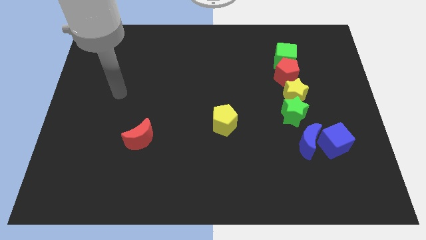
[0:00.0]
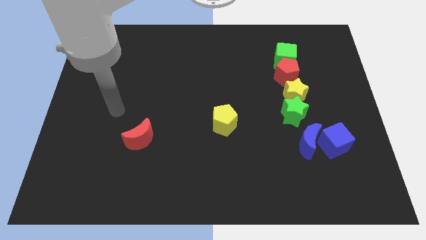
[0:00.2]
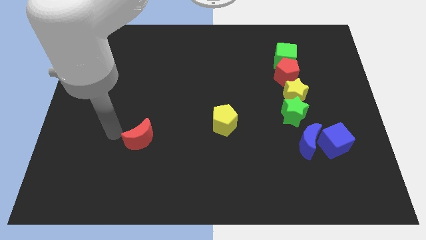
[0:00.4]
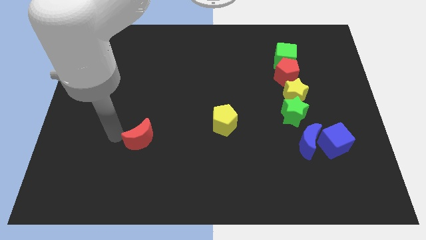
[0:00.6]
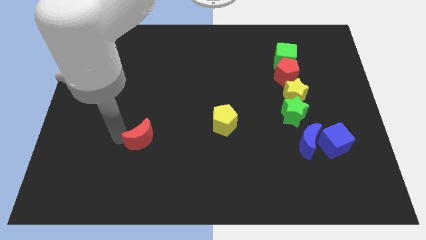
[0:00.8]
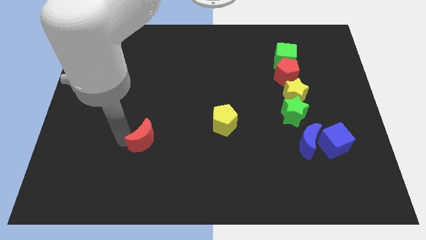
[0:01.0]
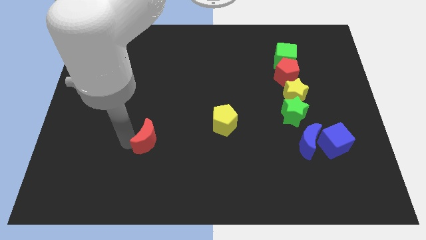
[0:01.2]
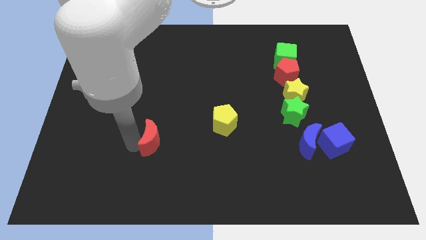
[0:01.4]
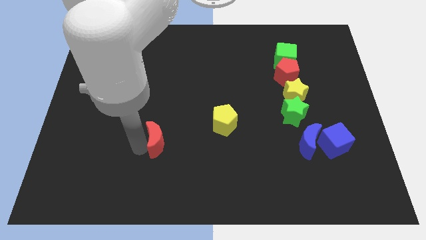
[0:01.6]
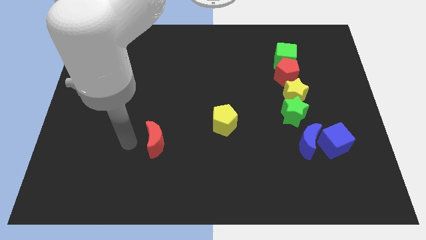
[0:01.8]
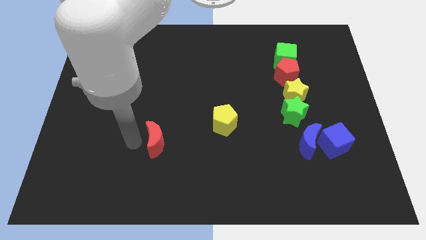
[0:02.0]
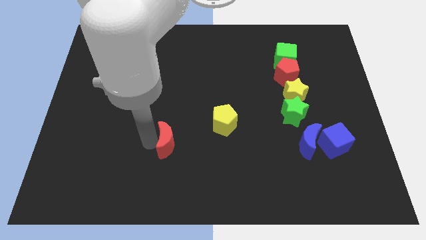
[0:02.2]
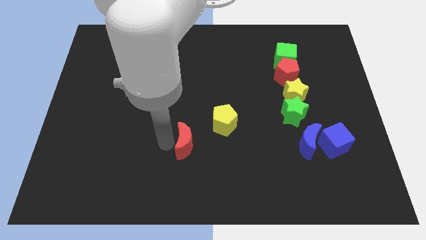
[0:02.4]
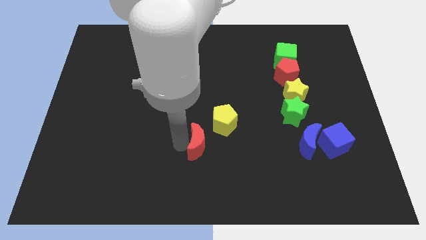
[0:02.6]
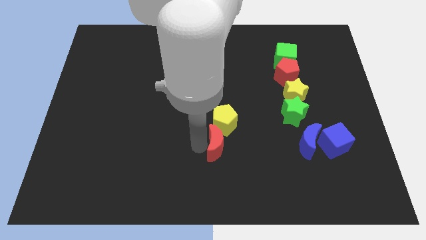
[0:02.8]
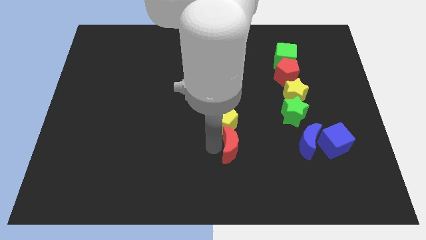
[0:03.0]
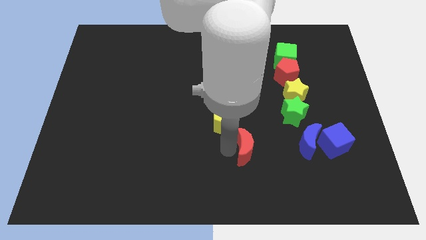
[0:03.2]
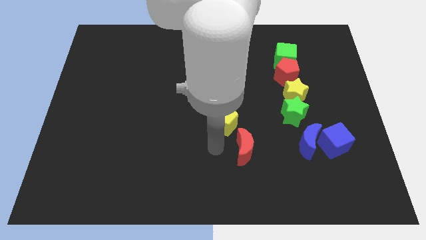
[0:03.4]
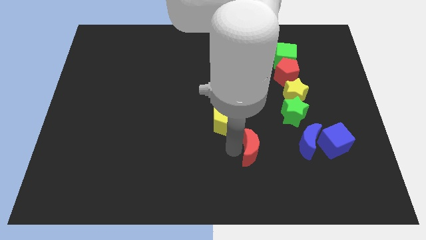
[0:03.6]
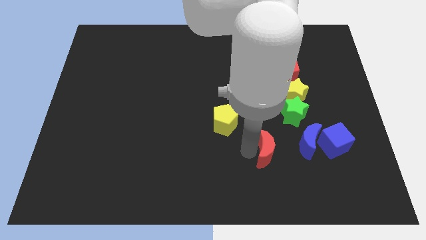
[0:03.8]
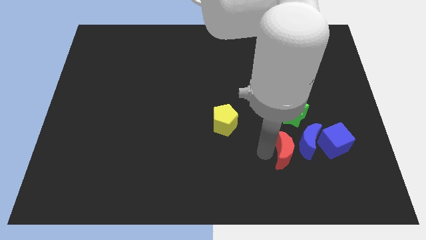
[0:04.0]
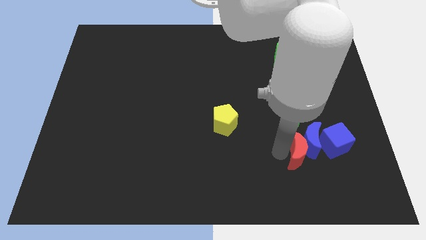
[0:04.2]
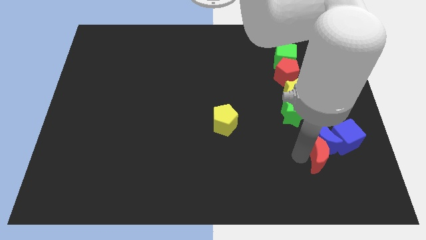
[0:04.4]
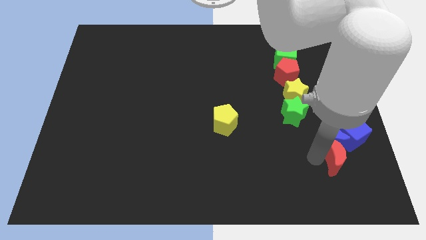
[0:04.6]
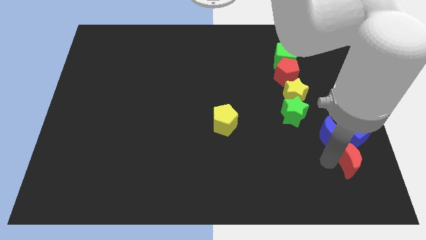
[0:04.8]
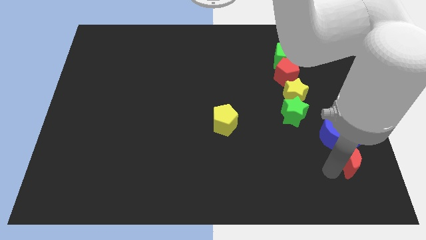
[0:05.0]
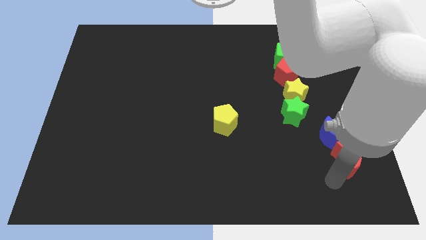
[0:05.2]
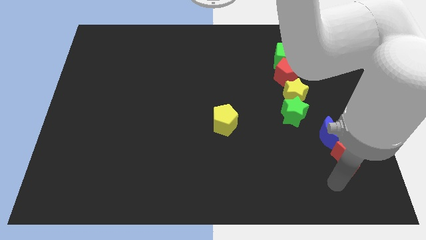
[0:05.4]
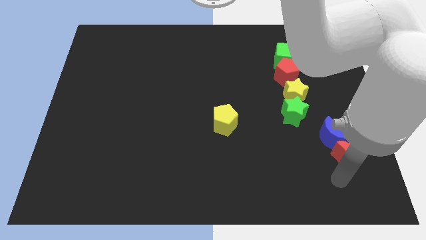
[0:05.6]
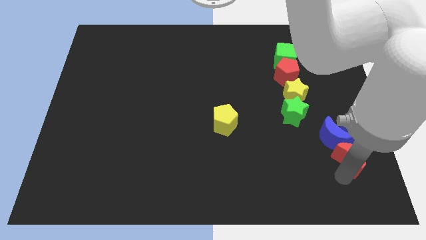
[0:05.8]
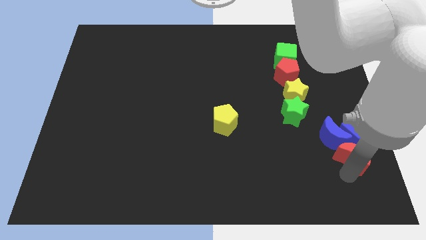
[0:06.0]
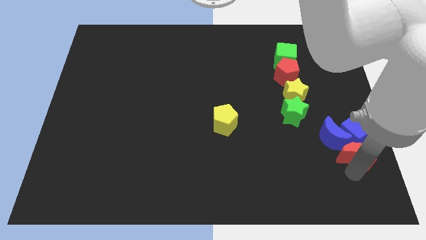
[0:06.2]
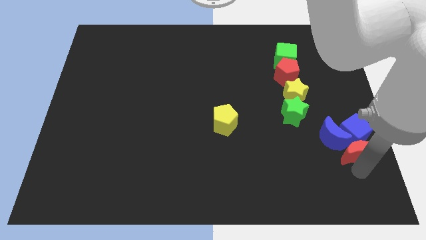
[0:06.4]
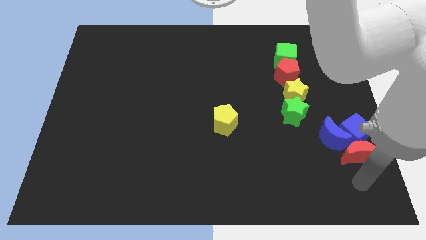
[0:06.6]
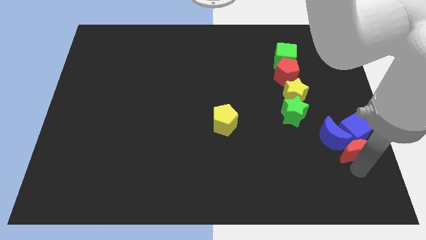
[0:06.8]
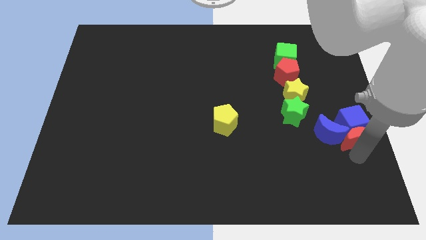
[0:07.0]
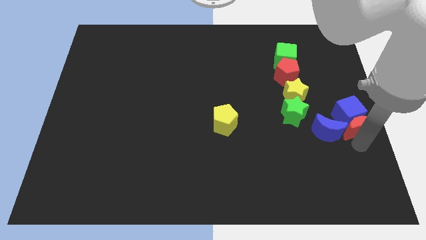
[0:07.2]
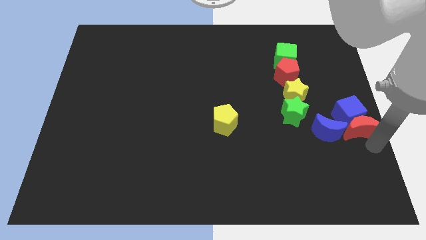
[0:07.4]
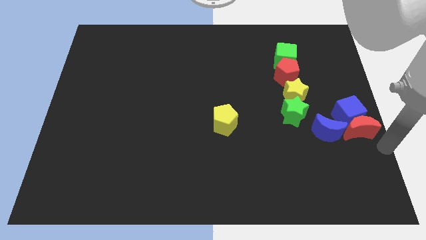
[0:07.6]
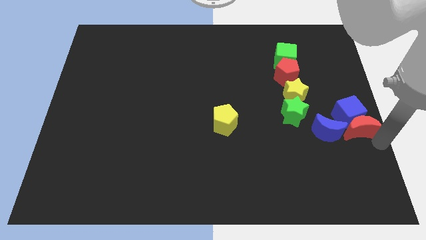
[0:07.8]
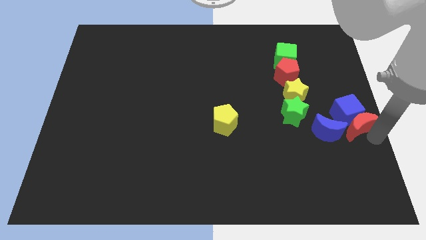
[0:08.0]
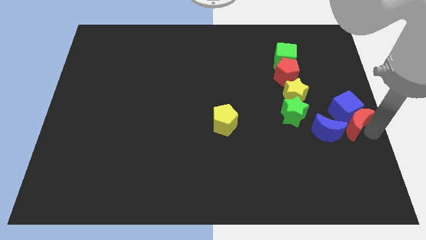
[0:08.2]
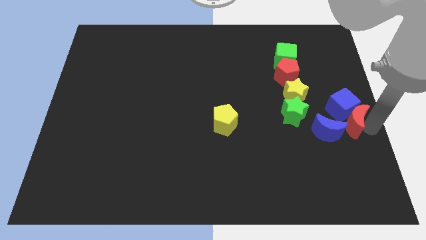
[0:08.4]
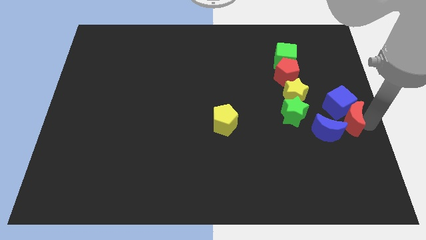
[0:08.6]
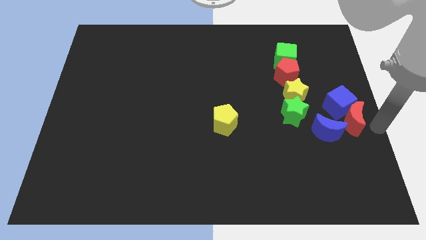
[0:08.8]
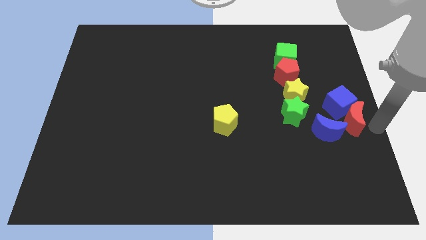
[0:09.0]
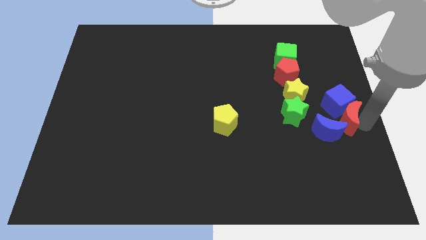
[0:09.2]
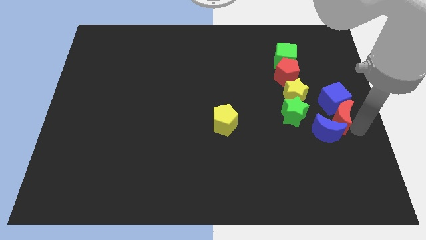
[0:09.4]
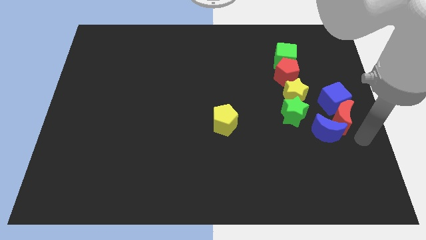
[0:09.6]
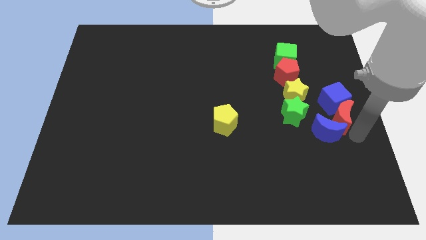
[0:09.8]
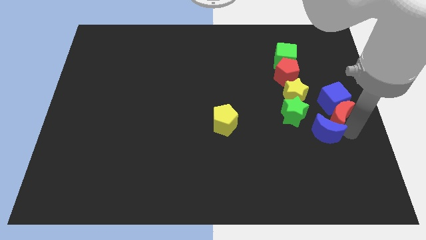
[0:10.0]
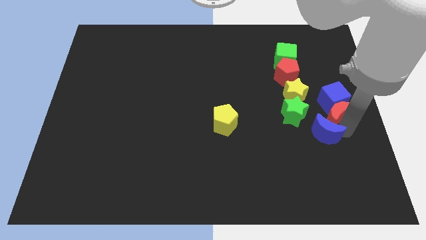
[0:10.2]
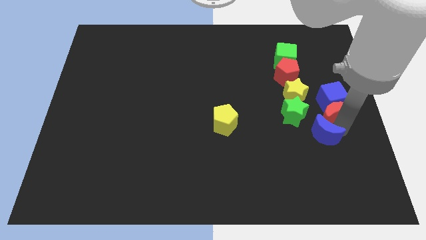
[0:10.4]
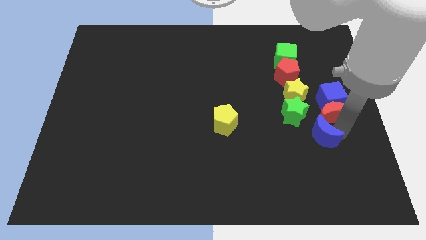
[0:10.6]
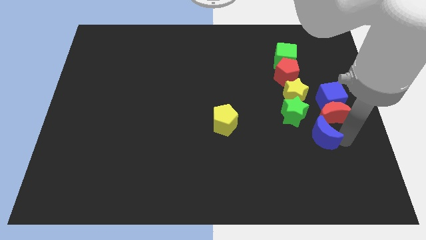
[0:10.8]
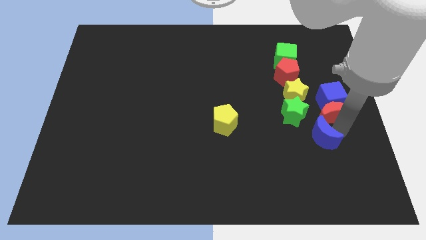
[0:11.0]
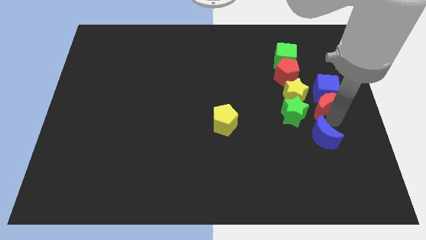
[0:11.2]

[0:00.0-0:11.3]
slide the red moon to the top right side of the green star

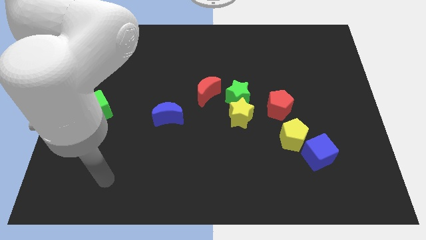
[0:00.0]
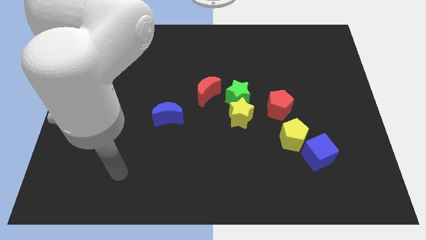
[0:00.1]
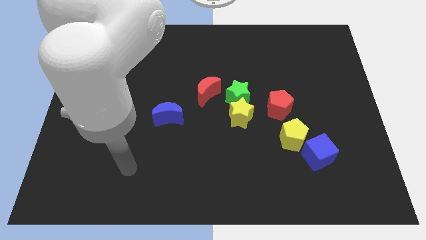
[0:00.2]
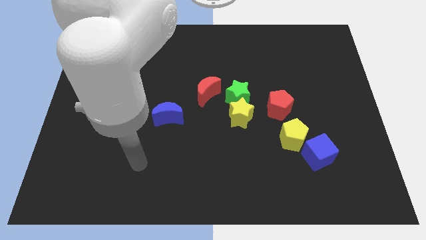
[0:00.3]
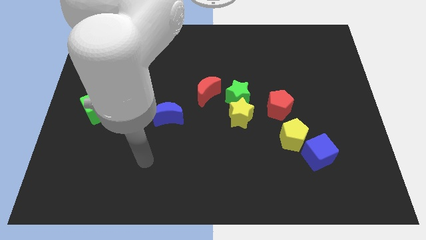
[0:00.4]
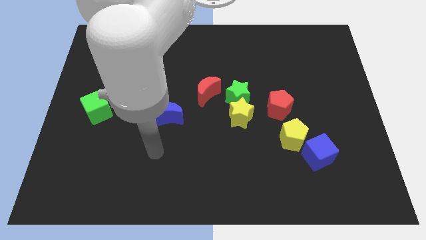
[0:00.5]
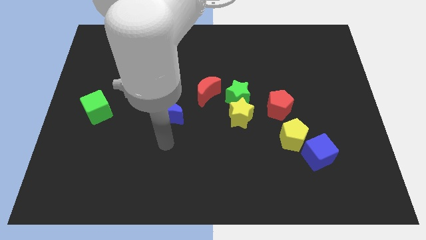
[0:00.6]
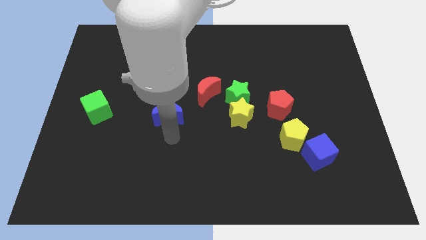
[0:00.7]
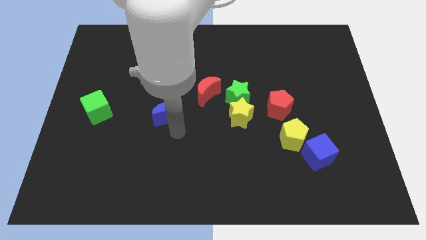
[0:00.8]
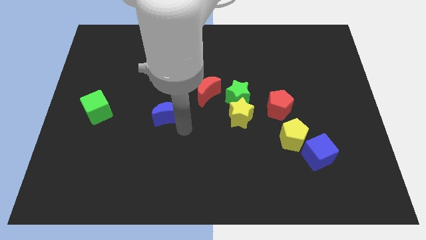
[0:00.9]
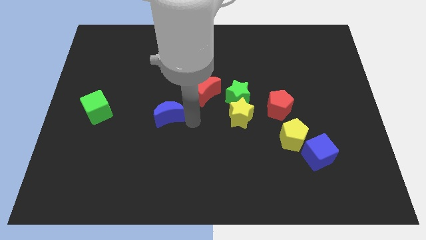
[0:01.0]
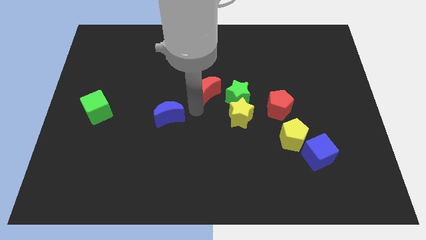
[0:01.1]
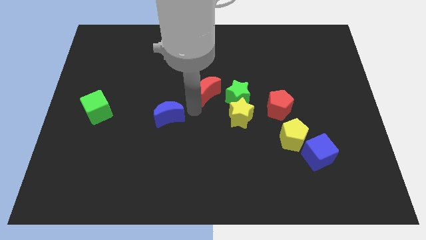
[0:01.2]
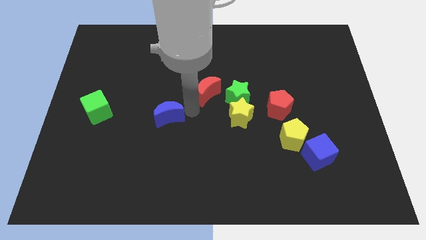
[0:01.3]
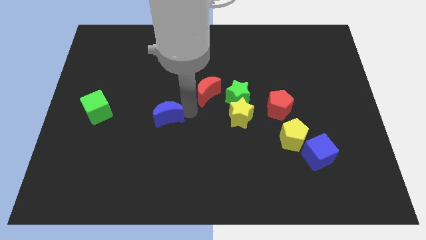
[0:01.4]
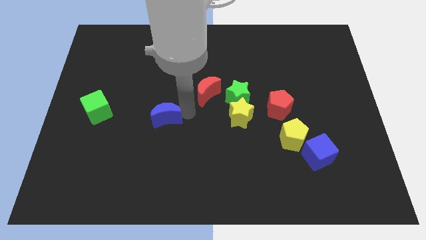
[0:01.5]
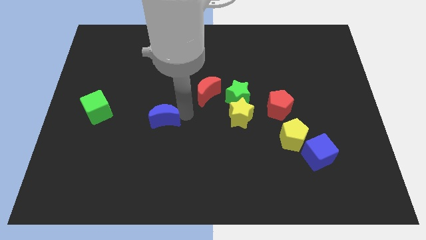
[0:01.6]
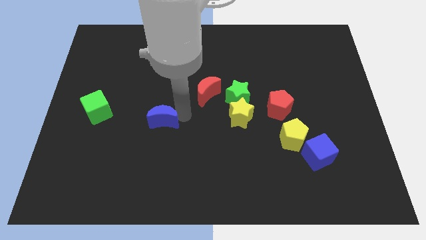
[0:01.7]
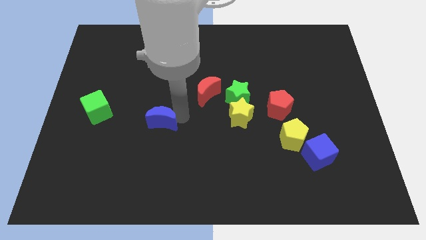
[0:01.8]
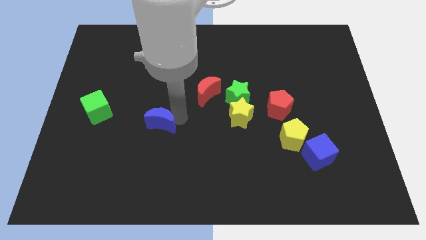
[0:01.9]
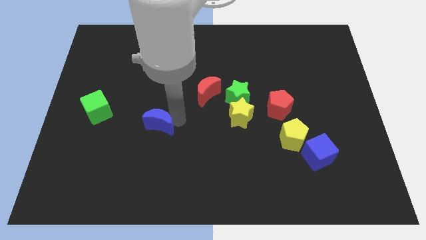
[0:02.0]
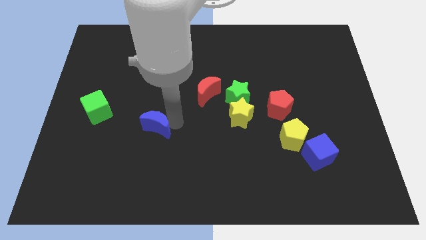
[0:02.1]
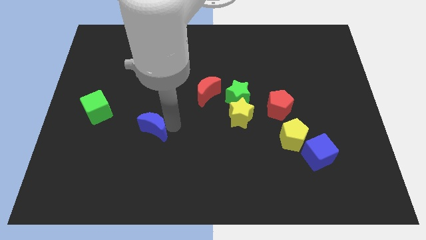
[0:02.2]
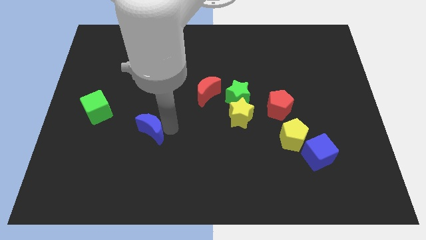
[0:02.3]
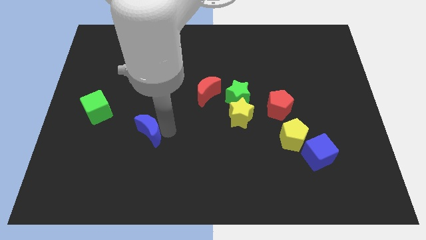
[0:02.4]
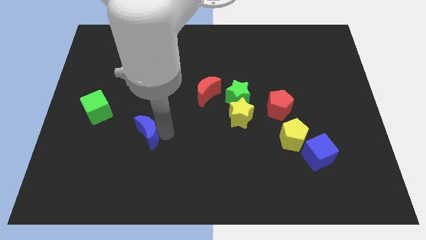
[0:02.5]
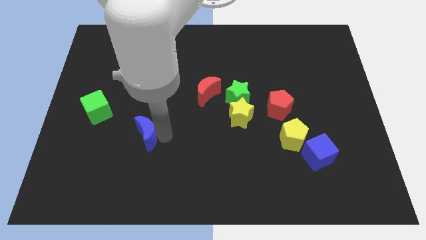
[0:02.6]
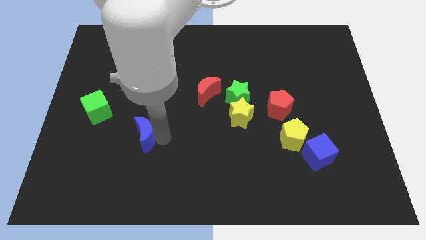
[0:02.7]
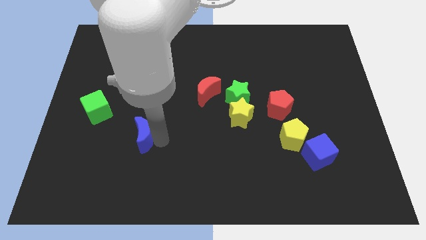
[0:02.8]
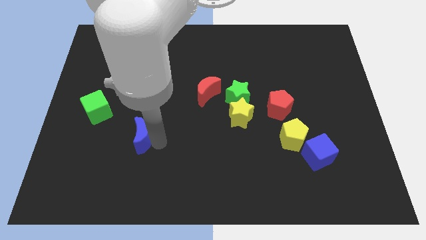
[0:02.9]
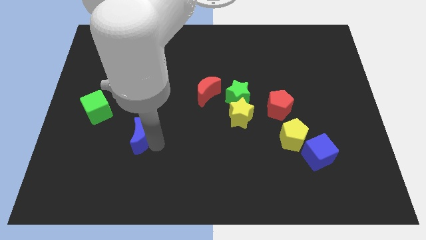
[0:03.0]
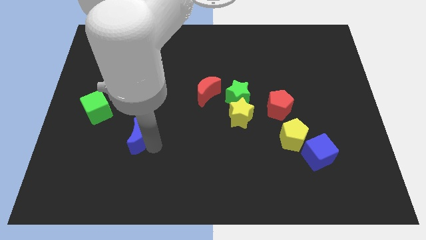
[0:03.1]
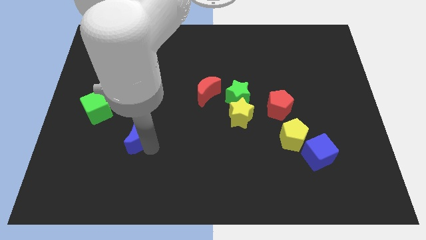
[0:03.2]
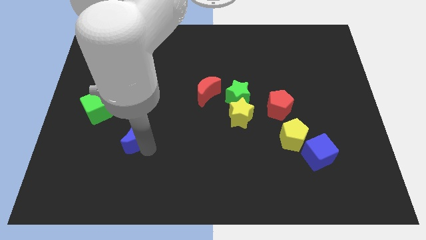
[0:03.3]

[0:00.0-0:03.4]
put the blue moon to the bottom right of the green cube
